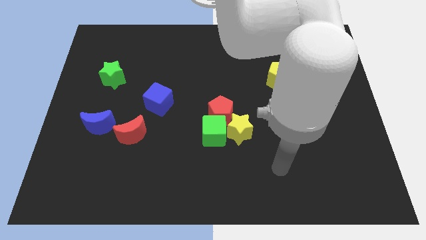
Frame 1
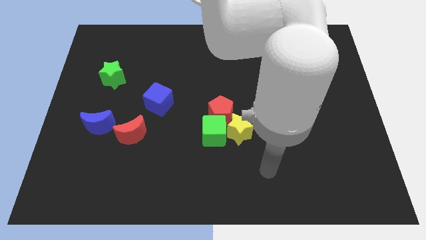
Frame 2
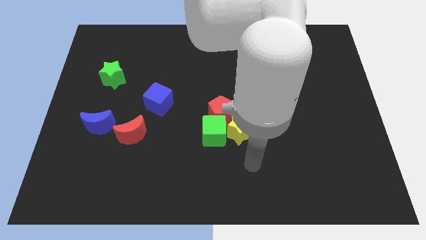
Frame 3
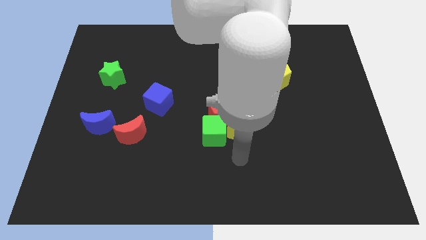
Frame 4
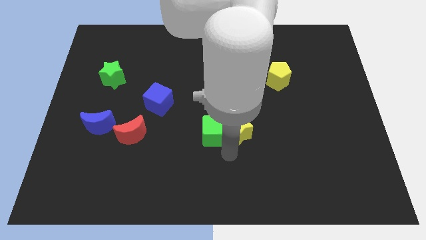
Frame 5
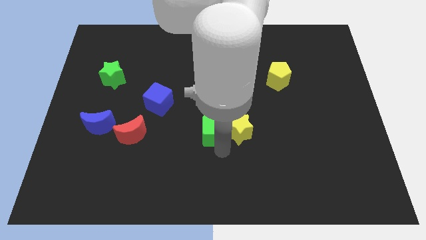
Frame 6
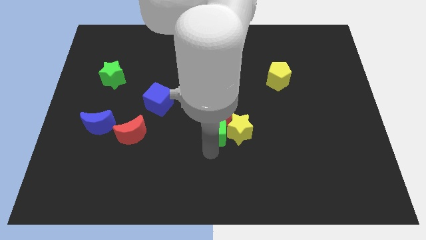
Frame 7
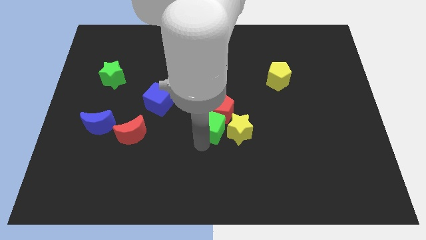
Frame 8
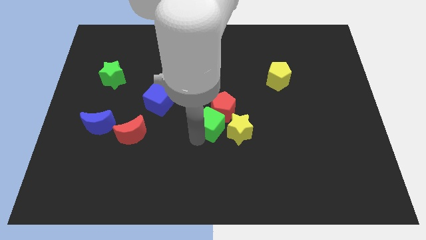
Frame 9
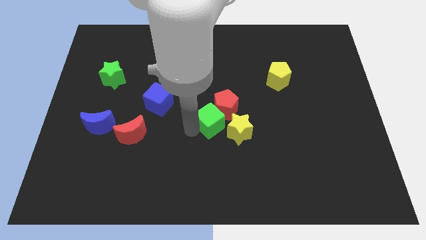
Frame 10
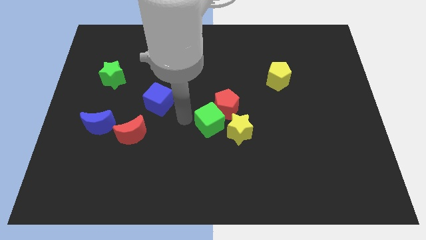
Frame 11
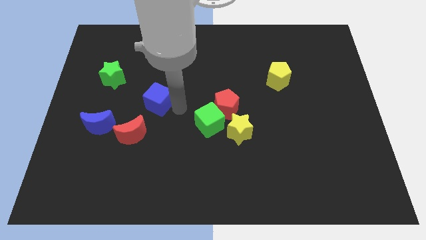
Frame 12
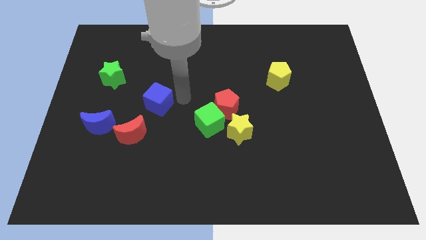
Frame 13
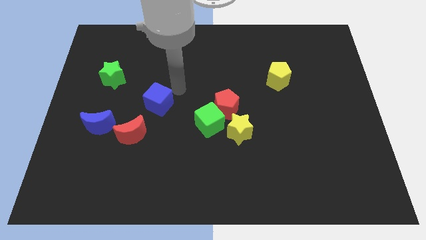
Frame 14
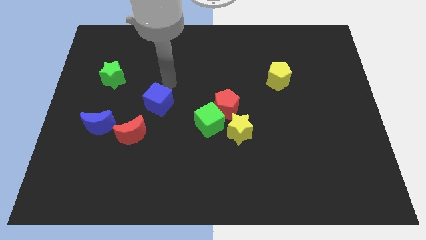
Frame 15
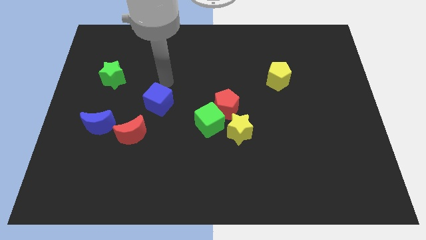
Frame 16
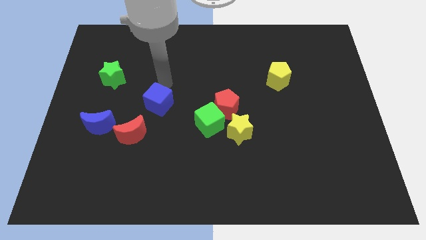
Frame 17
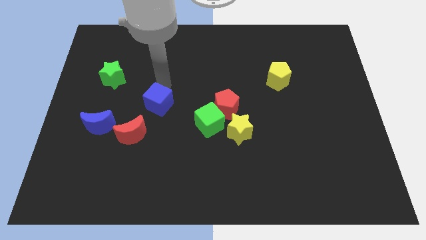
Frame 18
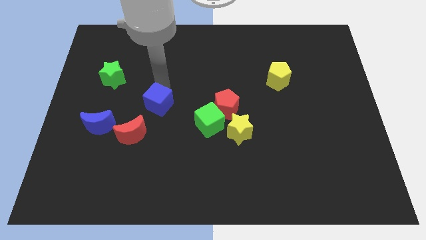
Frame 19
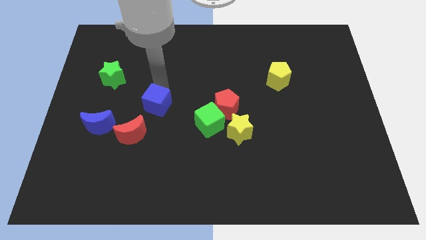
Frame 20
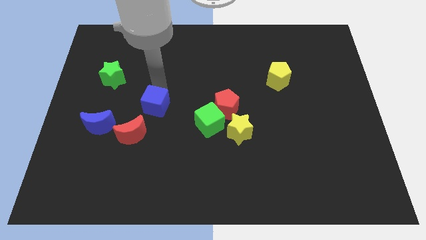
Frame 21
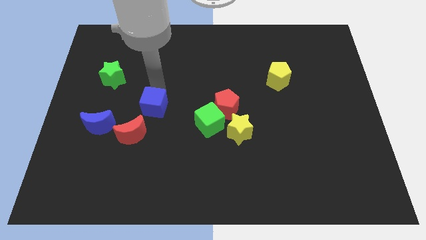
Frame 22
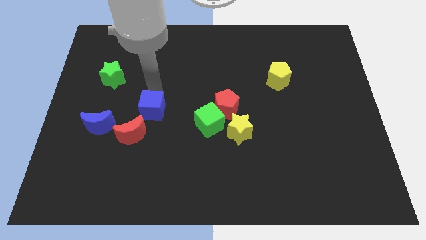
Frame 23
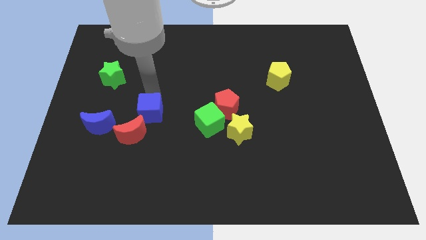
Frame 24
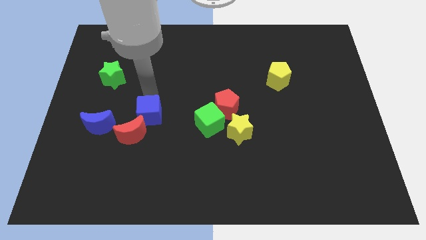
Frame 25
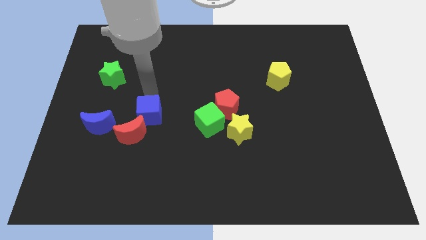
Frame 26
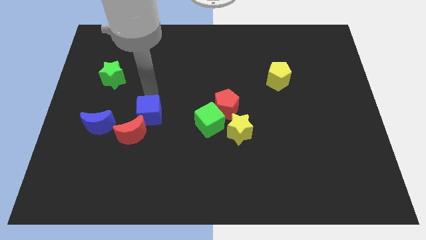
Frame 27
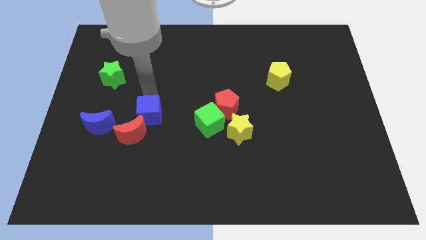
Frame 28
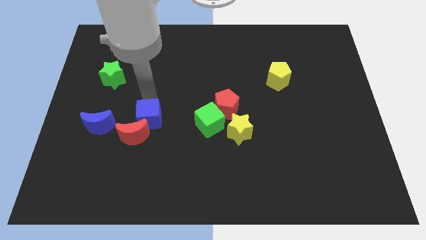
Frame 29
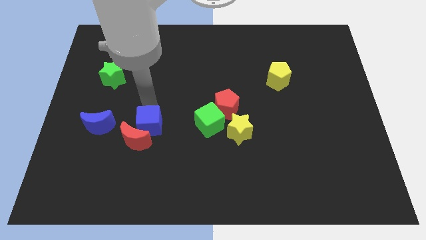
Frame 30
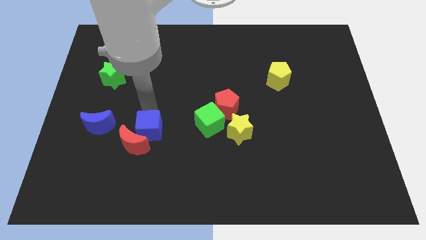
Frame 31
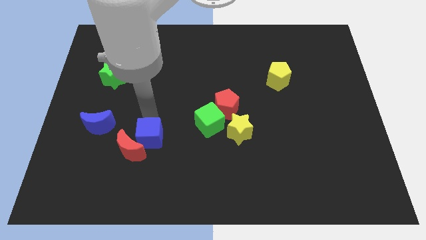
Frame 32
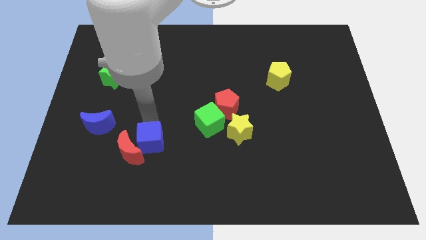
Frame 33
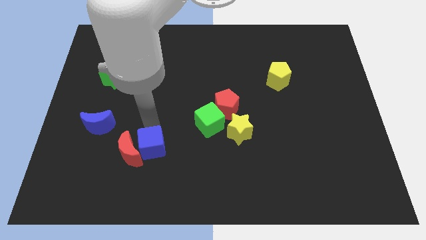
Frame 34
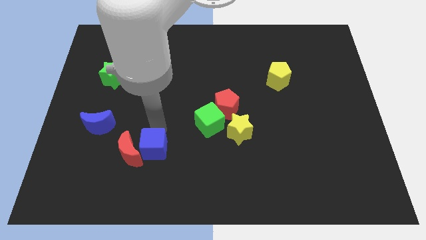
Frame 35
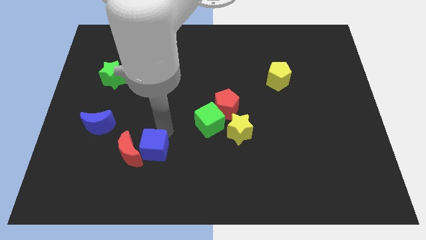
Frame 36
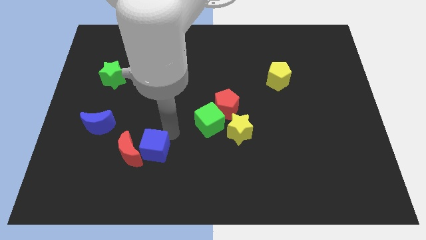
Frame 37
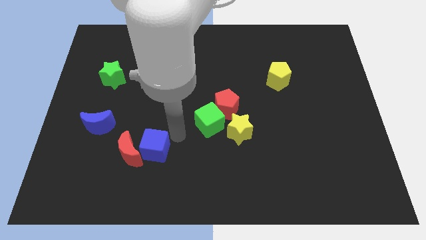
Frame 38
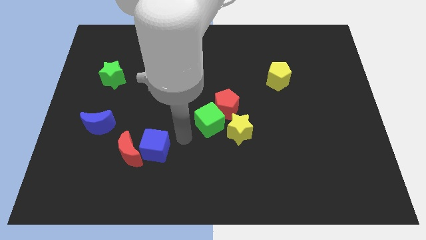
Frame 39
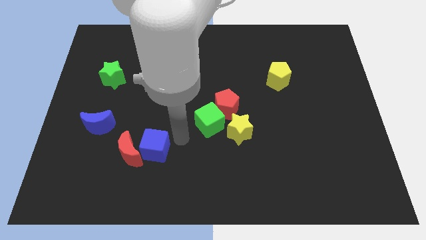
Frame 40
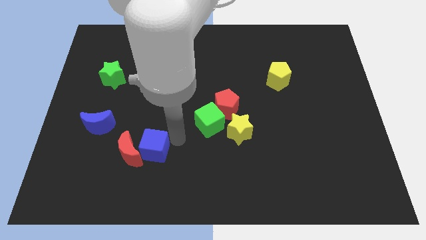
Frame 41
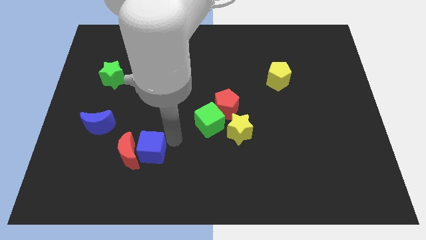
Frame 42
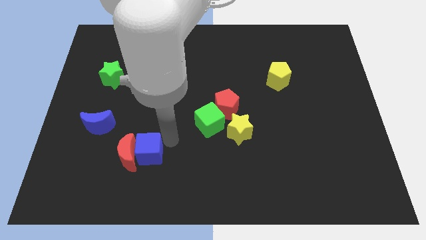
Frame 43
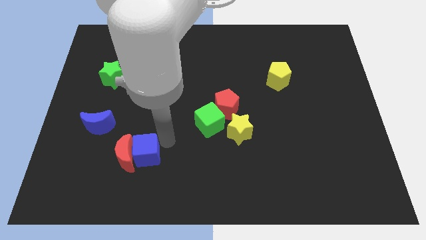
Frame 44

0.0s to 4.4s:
slightly move the blue cube diagonally down and left

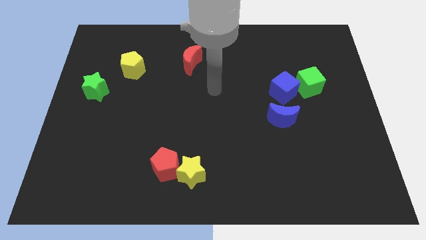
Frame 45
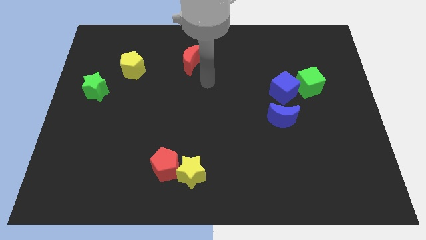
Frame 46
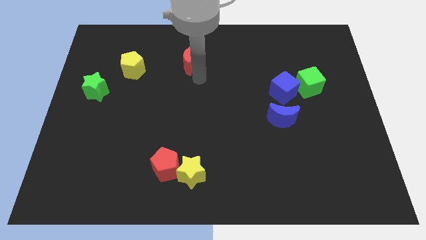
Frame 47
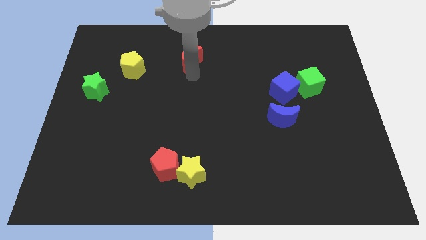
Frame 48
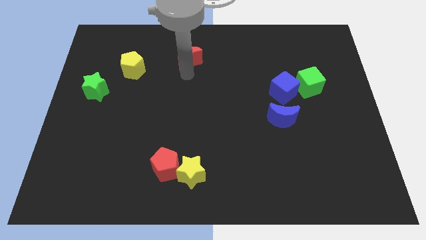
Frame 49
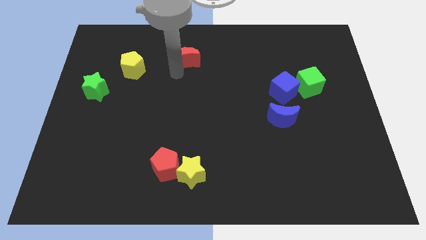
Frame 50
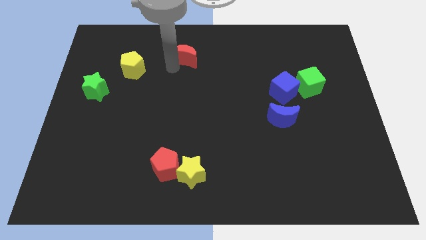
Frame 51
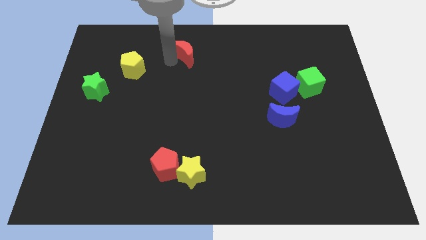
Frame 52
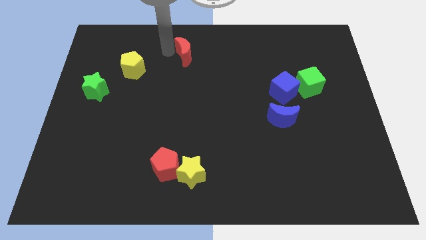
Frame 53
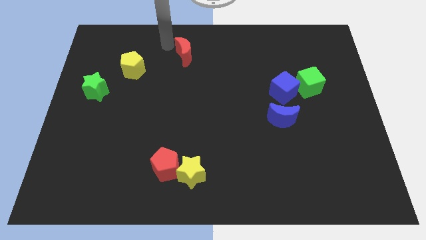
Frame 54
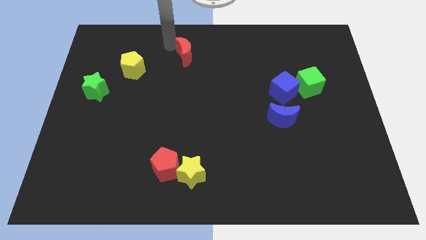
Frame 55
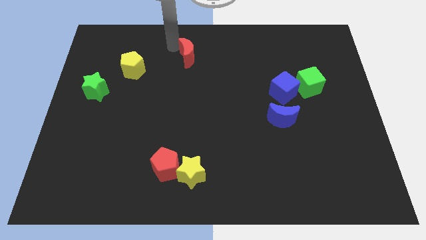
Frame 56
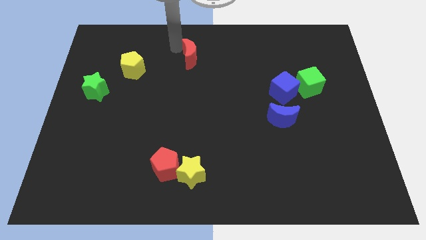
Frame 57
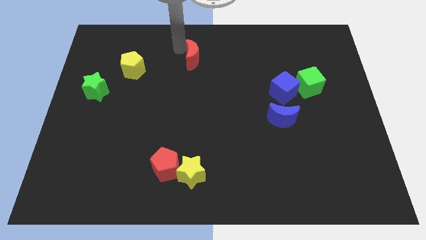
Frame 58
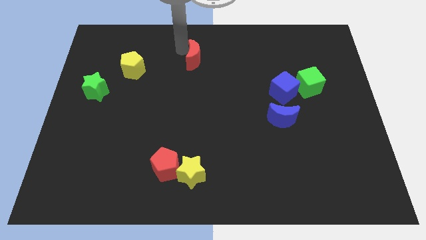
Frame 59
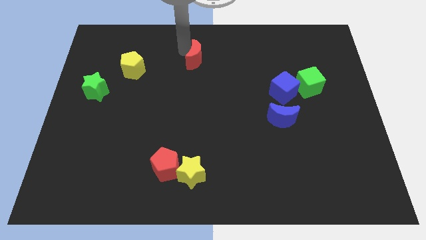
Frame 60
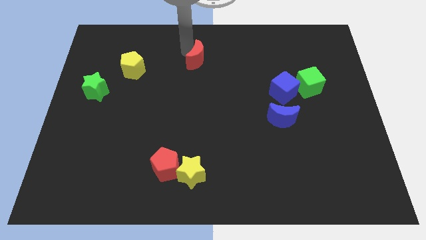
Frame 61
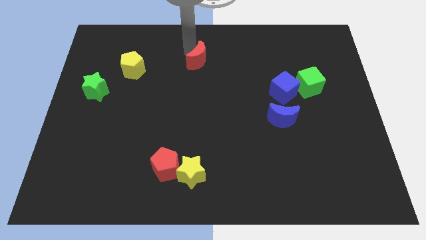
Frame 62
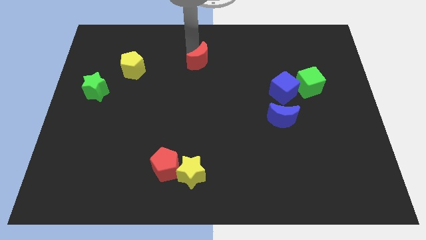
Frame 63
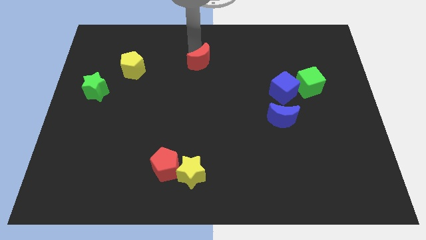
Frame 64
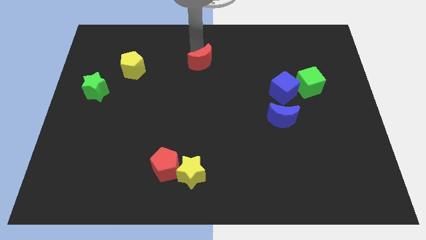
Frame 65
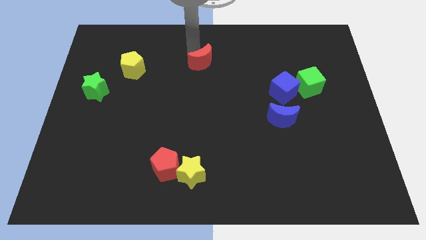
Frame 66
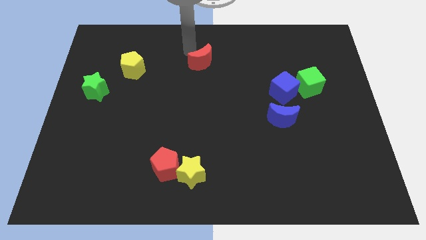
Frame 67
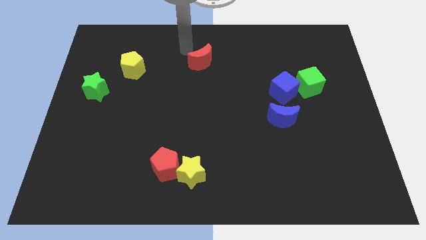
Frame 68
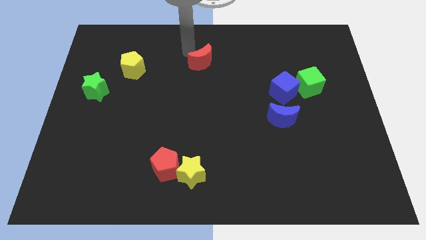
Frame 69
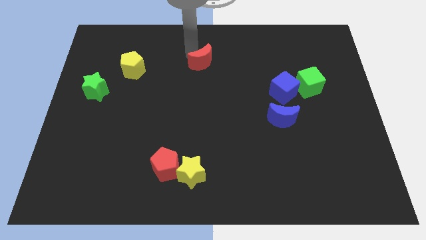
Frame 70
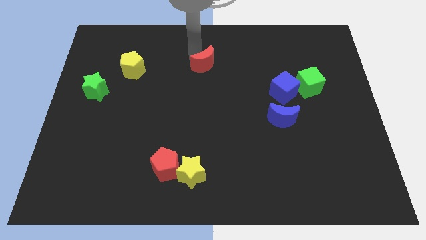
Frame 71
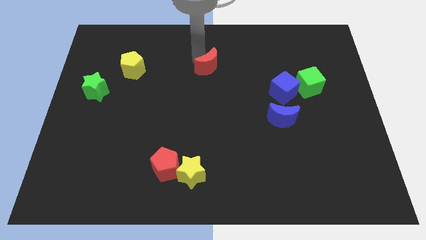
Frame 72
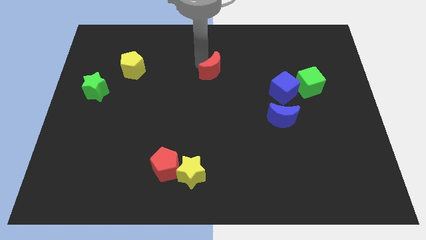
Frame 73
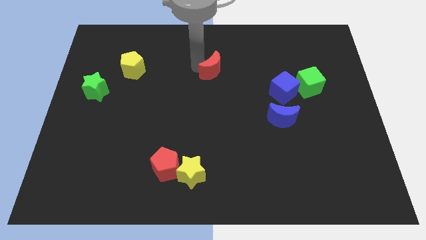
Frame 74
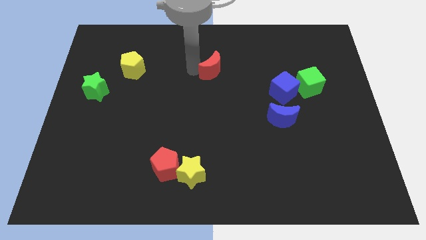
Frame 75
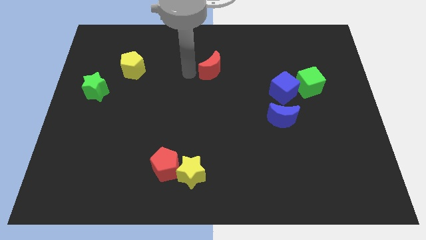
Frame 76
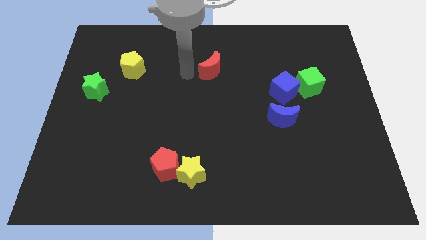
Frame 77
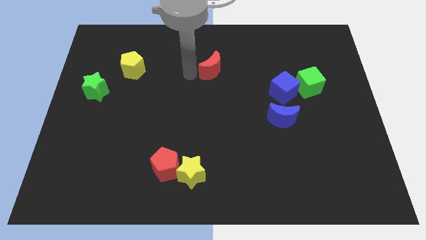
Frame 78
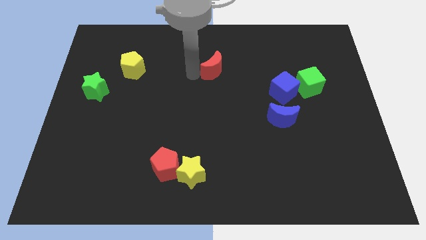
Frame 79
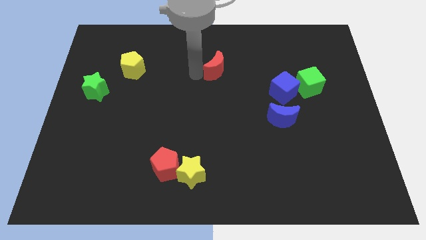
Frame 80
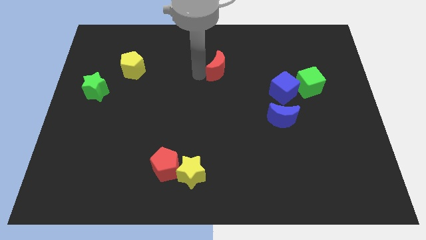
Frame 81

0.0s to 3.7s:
move the red moon to the right a bit
